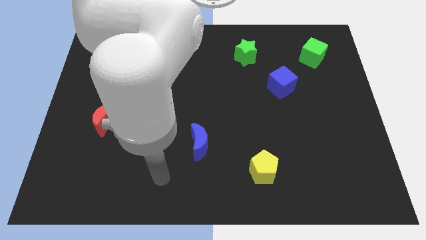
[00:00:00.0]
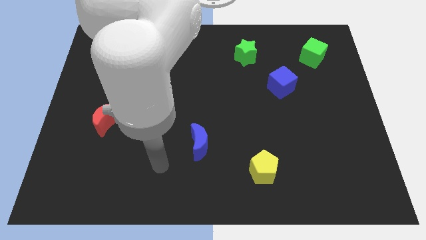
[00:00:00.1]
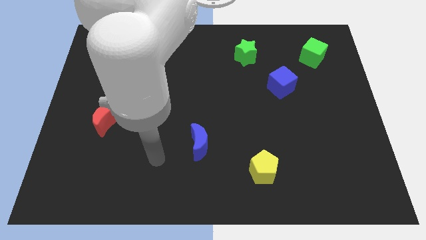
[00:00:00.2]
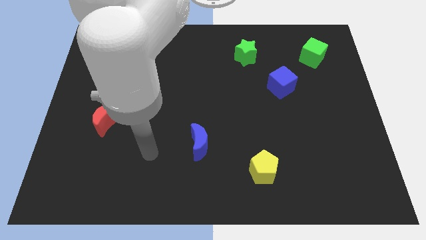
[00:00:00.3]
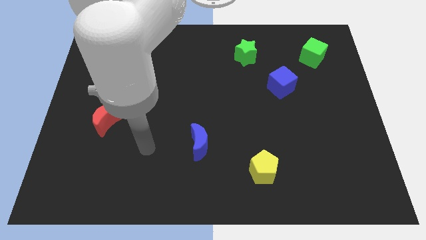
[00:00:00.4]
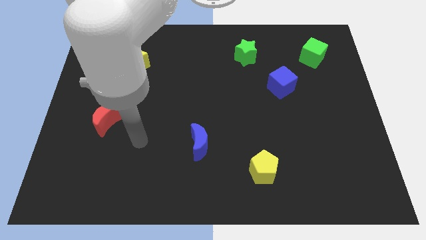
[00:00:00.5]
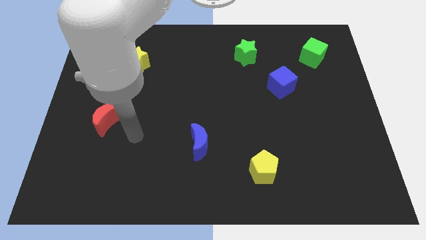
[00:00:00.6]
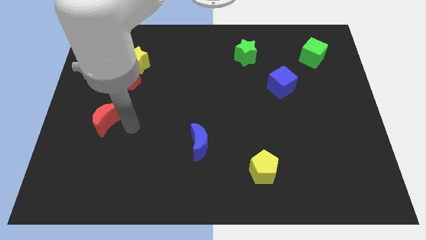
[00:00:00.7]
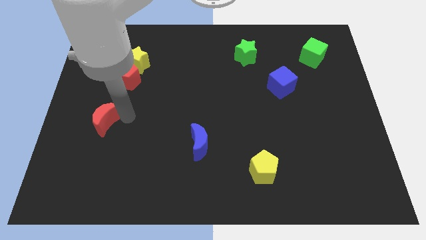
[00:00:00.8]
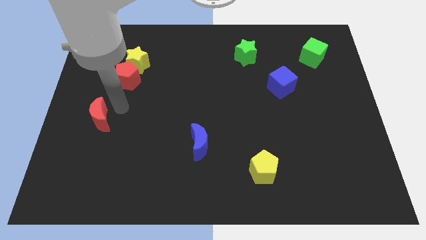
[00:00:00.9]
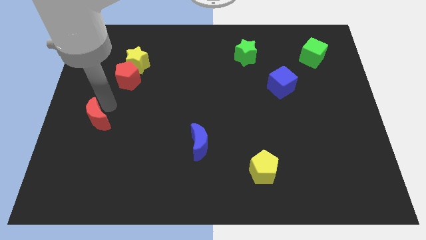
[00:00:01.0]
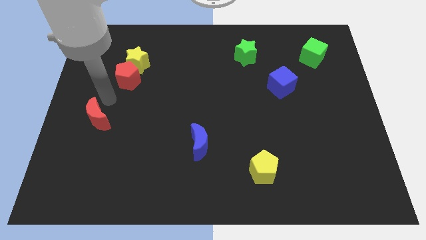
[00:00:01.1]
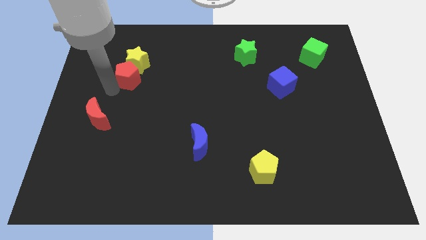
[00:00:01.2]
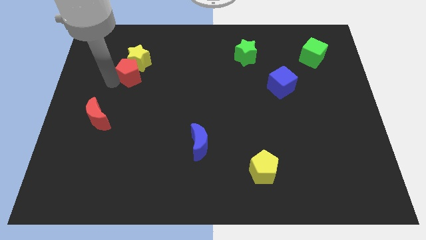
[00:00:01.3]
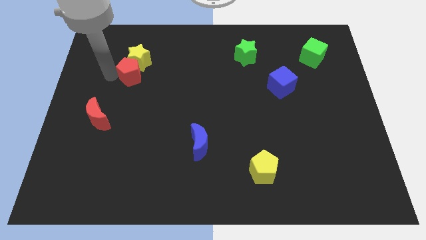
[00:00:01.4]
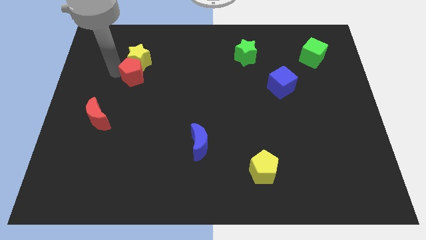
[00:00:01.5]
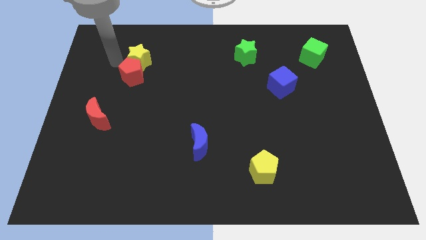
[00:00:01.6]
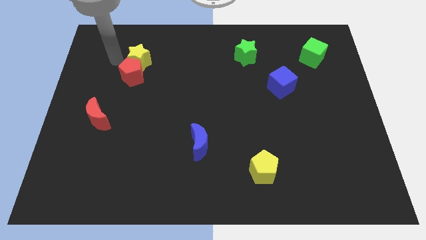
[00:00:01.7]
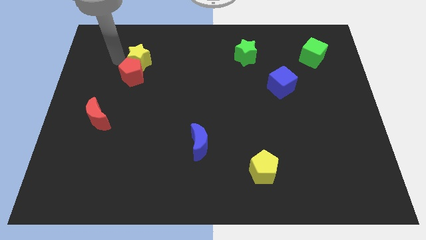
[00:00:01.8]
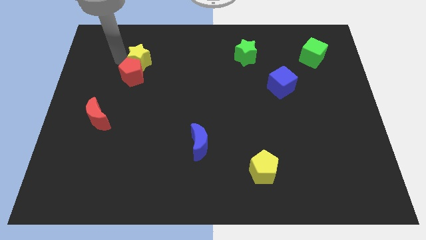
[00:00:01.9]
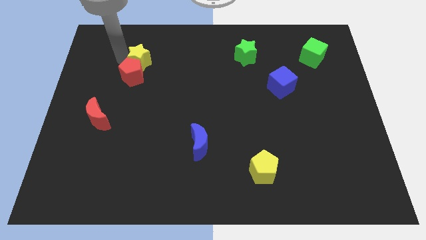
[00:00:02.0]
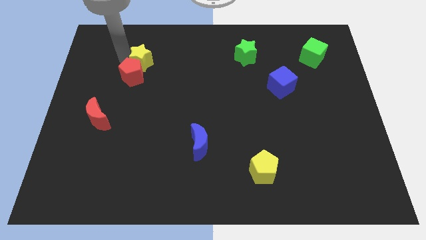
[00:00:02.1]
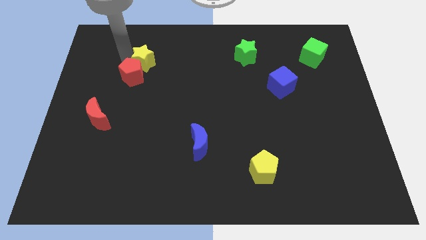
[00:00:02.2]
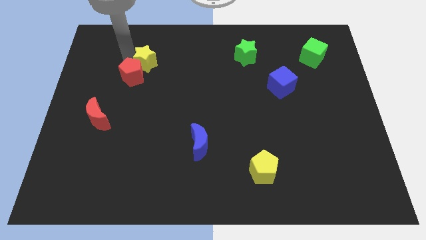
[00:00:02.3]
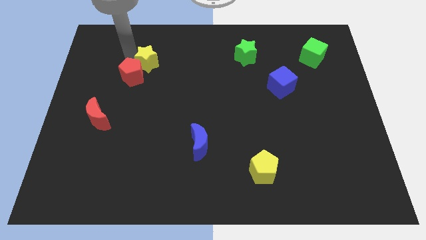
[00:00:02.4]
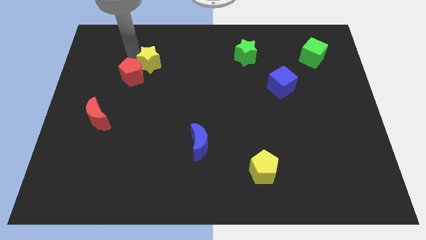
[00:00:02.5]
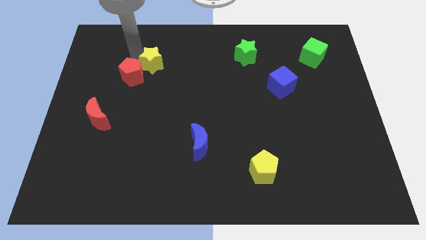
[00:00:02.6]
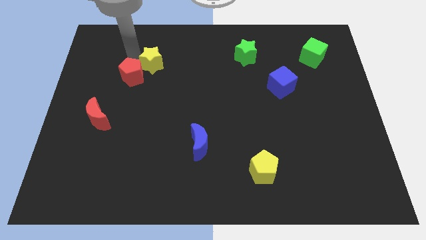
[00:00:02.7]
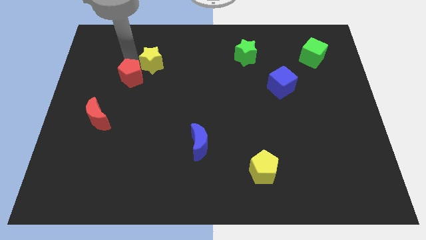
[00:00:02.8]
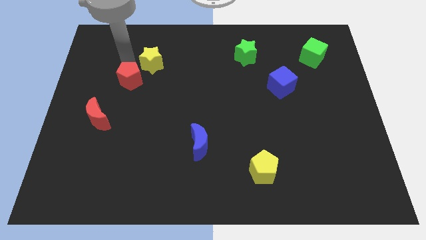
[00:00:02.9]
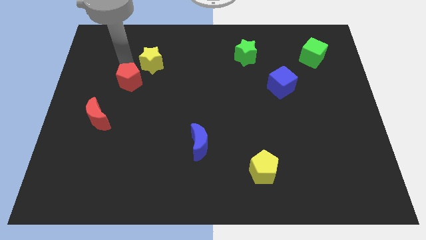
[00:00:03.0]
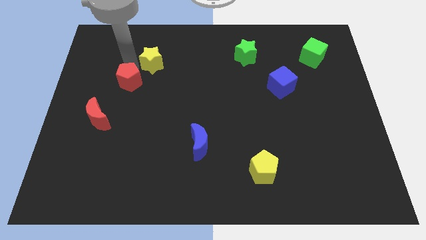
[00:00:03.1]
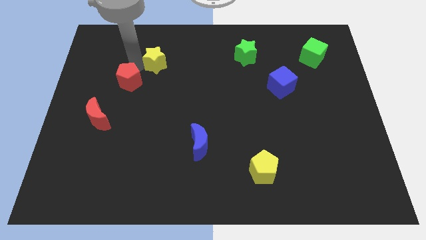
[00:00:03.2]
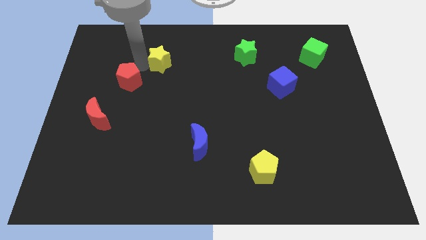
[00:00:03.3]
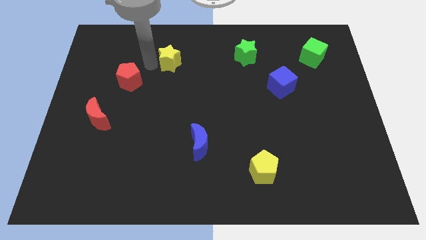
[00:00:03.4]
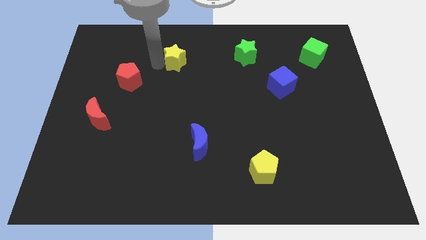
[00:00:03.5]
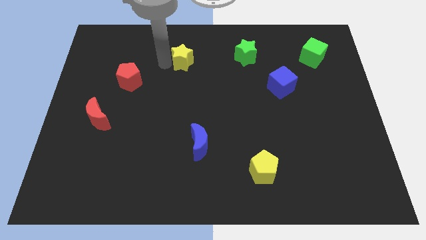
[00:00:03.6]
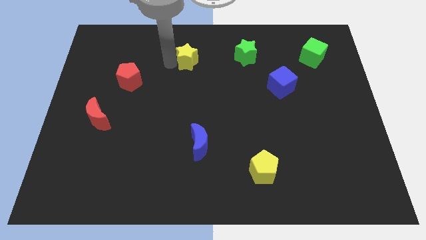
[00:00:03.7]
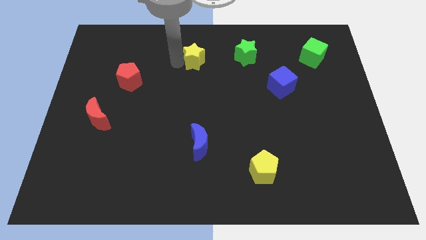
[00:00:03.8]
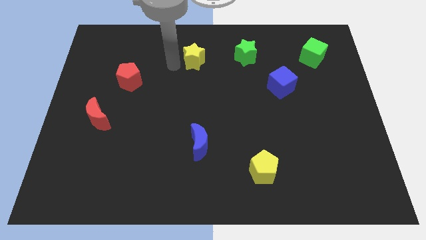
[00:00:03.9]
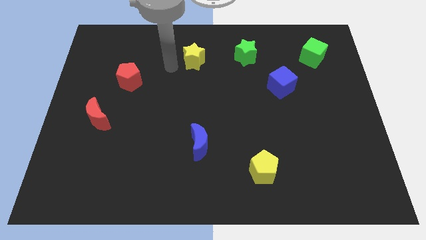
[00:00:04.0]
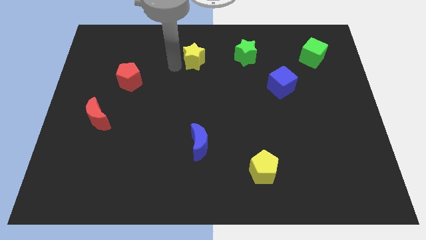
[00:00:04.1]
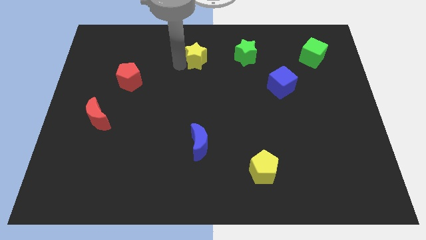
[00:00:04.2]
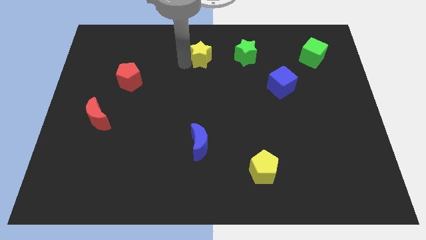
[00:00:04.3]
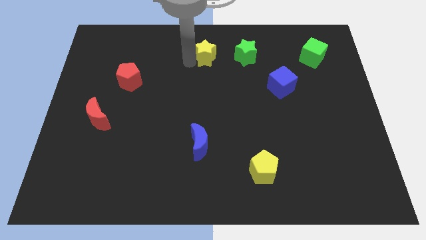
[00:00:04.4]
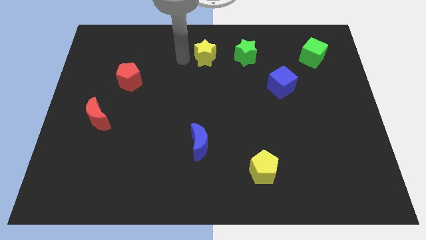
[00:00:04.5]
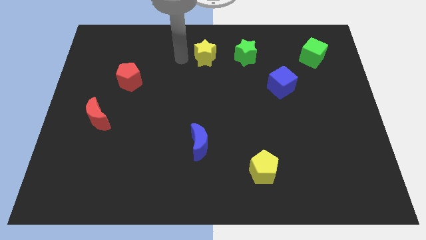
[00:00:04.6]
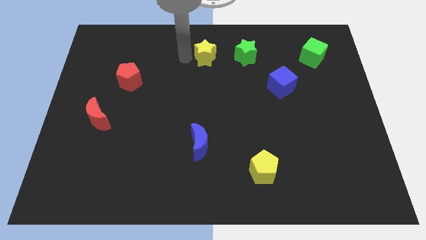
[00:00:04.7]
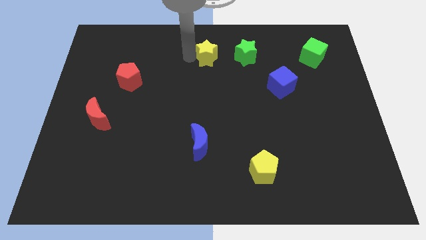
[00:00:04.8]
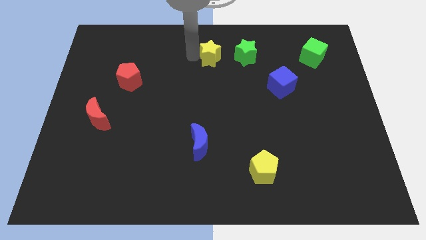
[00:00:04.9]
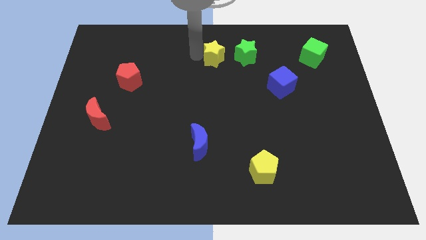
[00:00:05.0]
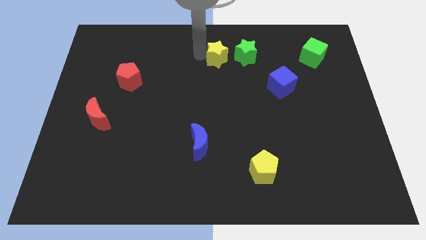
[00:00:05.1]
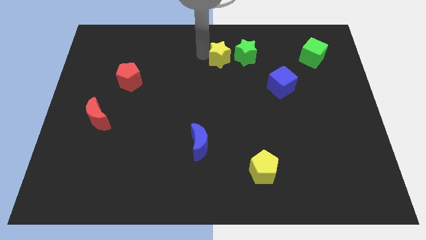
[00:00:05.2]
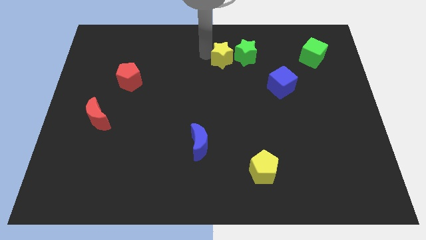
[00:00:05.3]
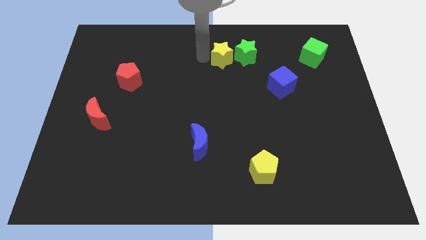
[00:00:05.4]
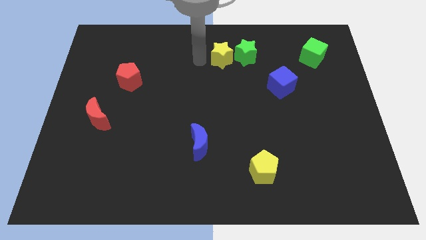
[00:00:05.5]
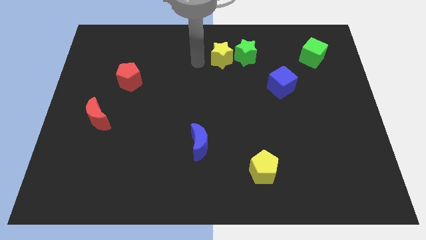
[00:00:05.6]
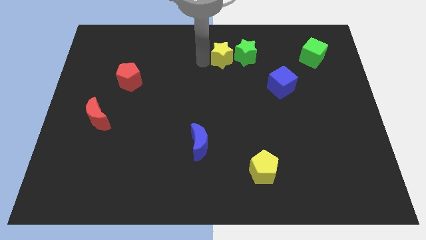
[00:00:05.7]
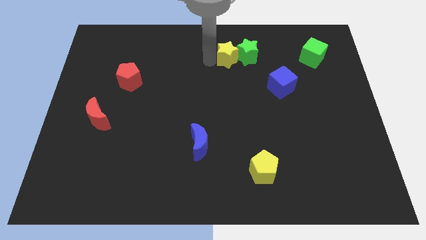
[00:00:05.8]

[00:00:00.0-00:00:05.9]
put the yellow star next to the green star
